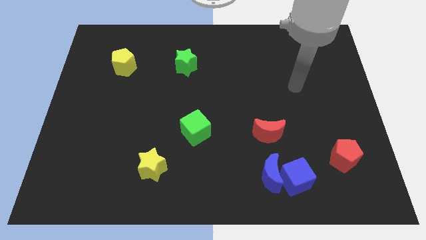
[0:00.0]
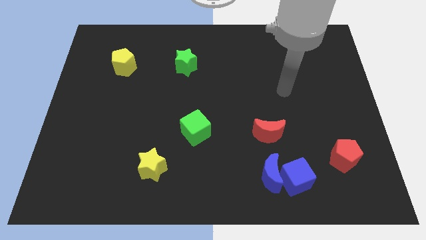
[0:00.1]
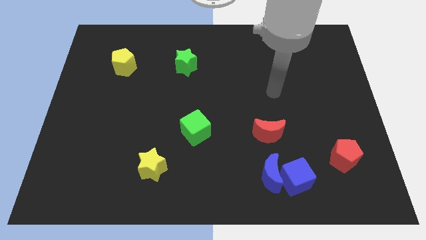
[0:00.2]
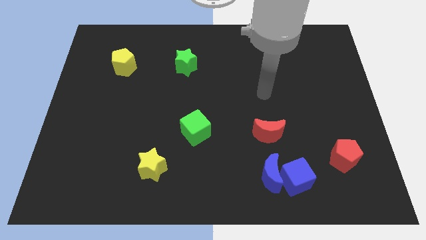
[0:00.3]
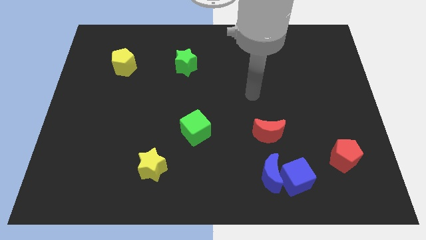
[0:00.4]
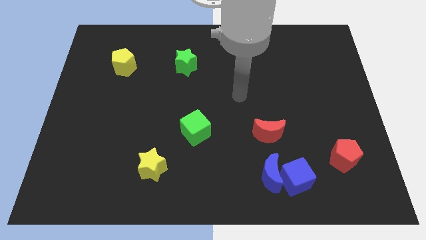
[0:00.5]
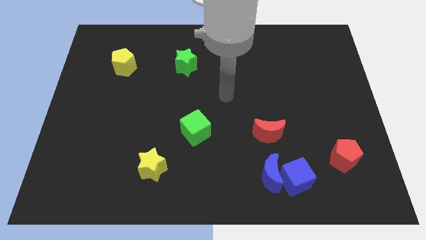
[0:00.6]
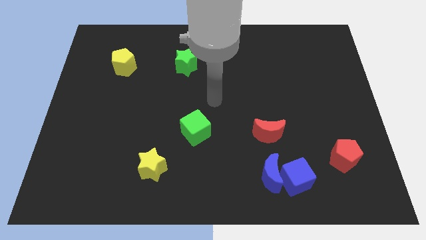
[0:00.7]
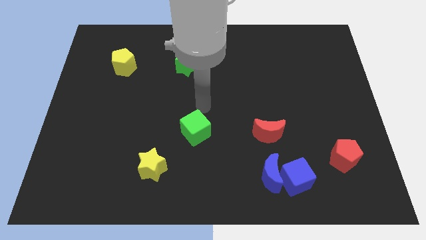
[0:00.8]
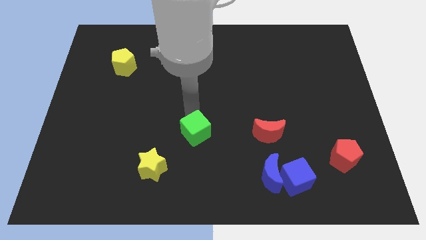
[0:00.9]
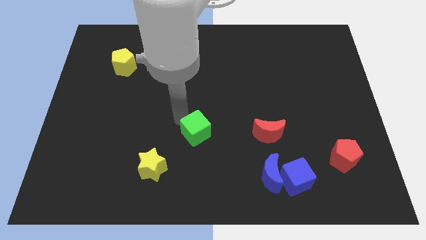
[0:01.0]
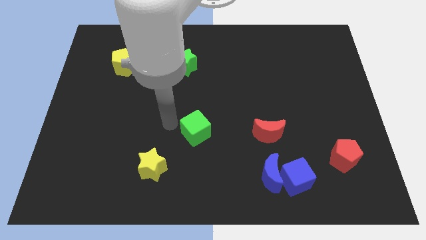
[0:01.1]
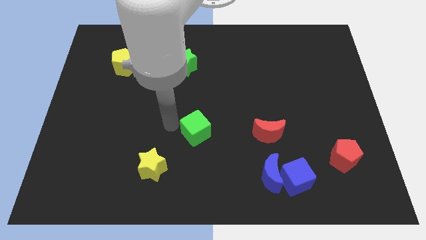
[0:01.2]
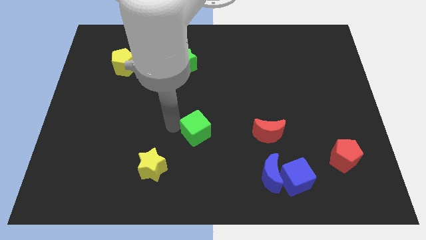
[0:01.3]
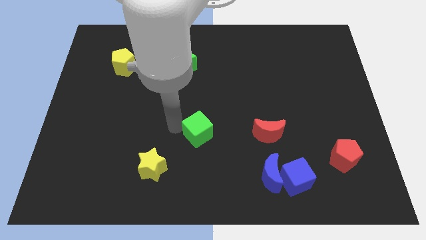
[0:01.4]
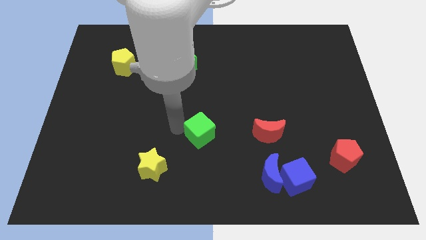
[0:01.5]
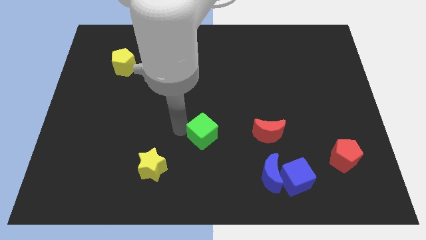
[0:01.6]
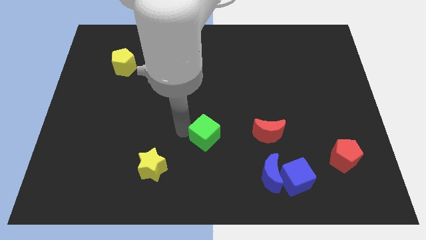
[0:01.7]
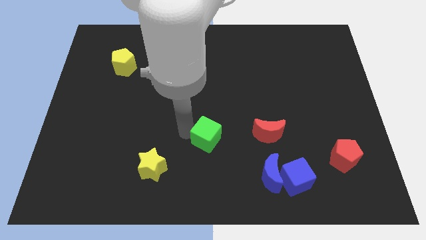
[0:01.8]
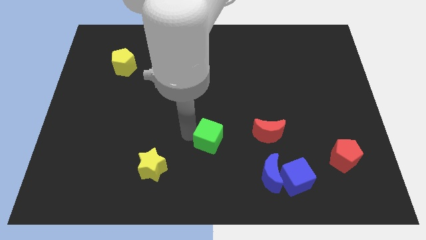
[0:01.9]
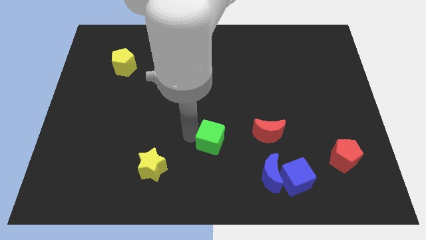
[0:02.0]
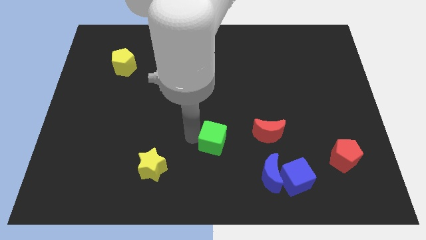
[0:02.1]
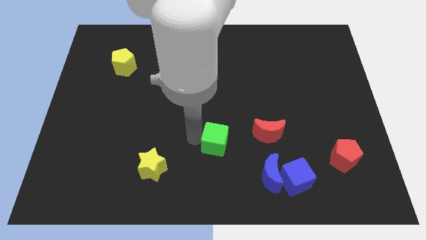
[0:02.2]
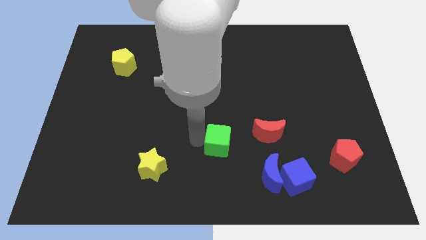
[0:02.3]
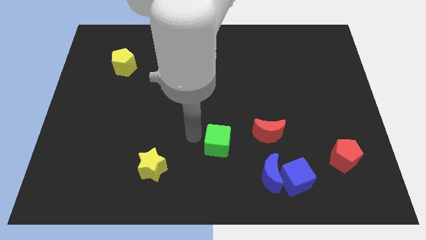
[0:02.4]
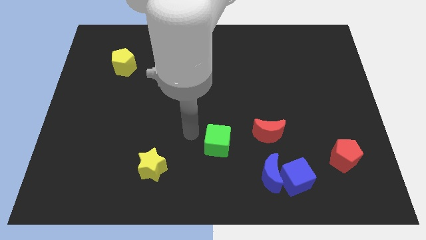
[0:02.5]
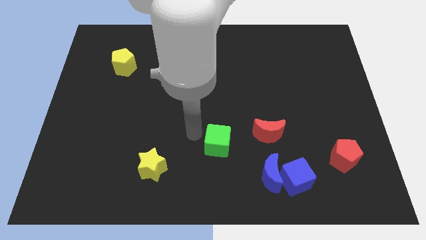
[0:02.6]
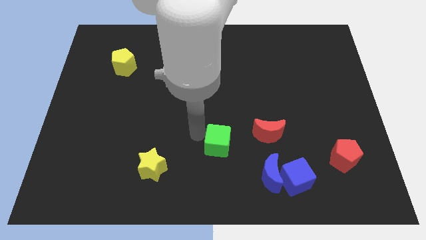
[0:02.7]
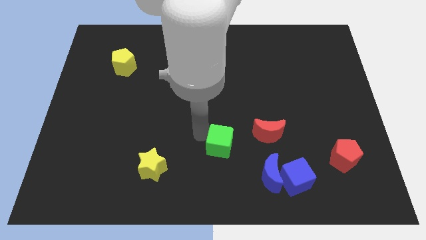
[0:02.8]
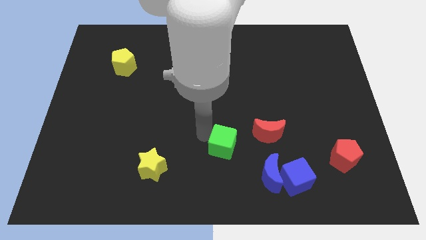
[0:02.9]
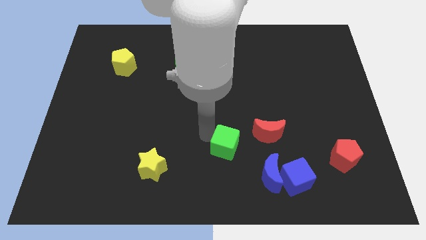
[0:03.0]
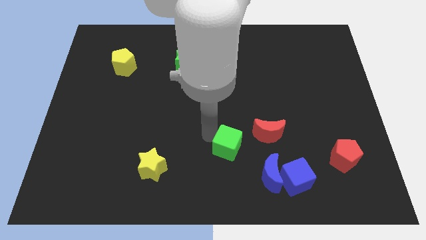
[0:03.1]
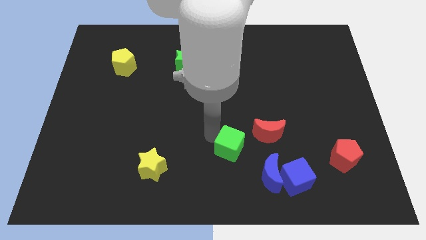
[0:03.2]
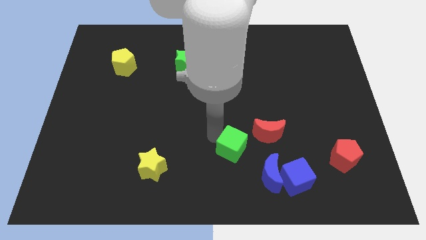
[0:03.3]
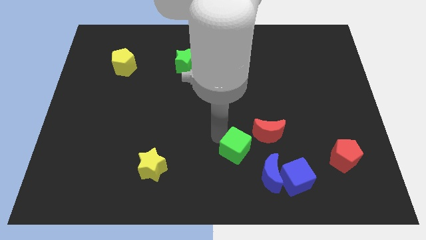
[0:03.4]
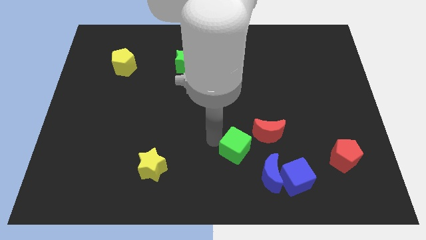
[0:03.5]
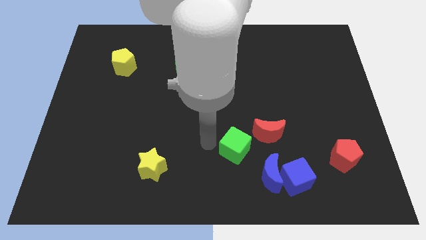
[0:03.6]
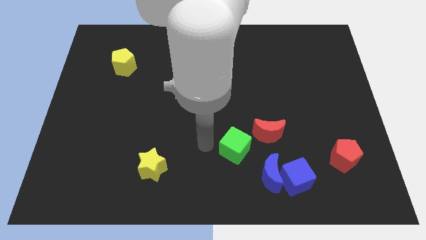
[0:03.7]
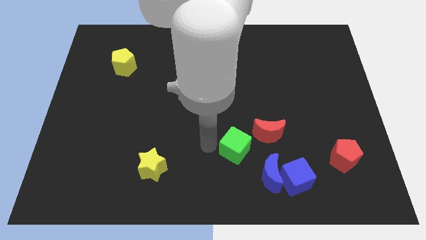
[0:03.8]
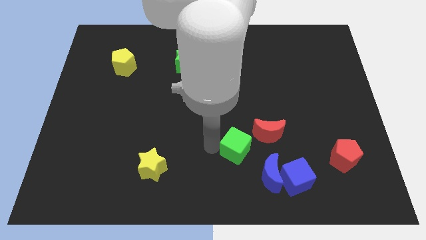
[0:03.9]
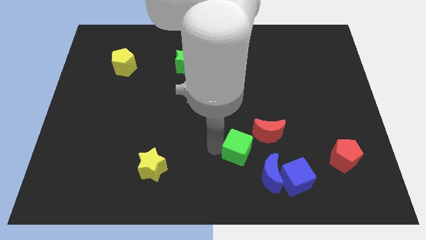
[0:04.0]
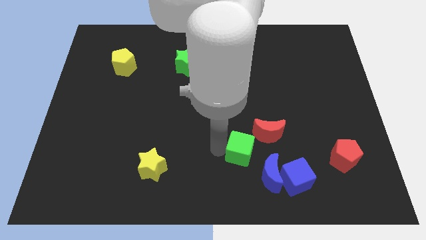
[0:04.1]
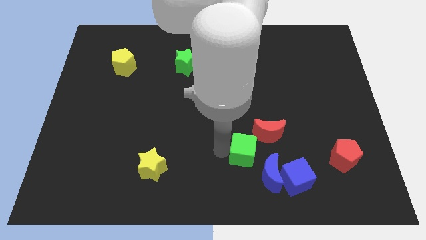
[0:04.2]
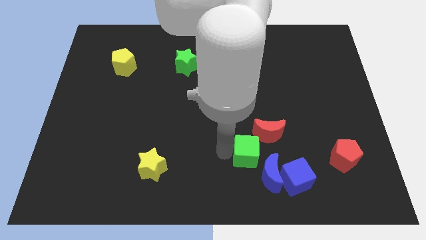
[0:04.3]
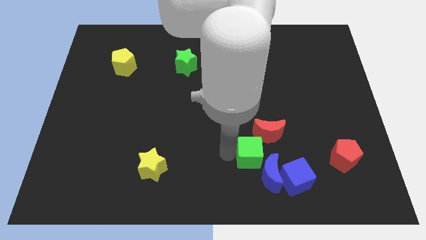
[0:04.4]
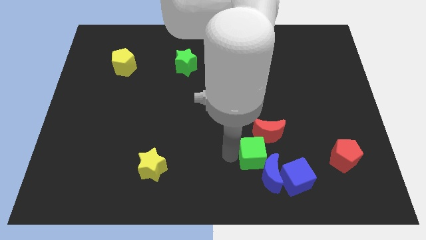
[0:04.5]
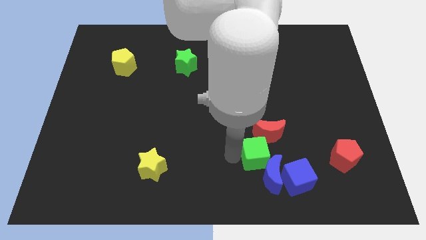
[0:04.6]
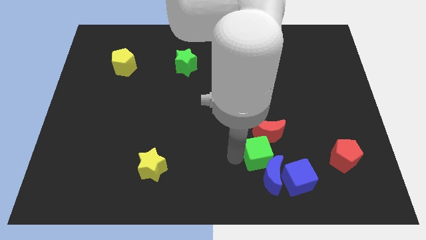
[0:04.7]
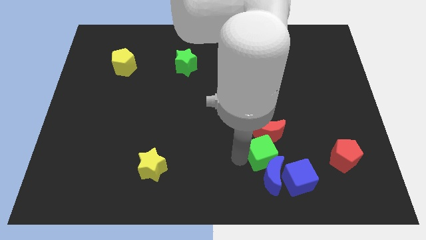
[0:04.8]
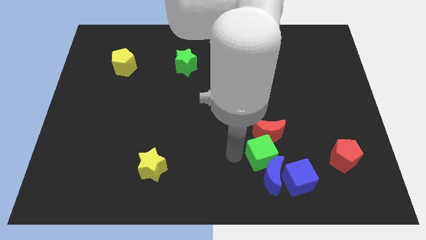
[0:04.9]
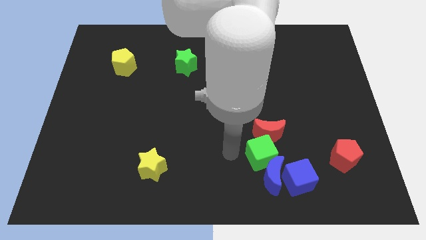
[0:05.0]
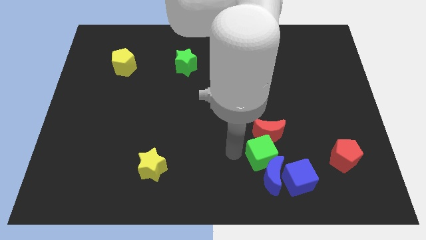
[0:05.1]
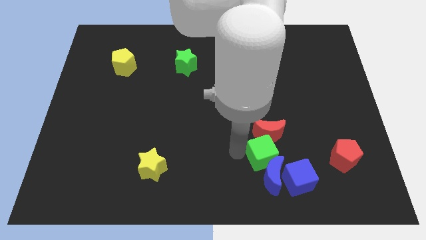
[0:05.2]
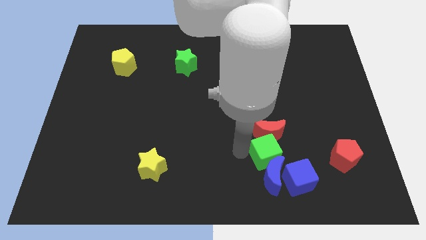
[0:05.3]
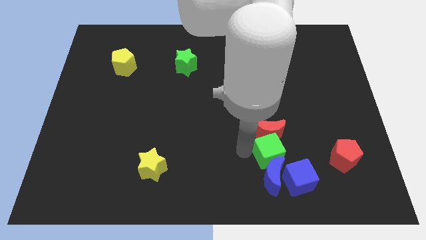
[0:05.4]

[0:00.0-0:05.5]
push the green cube to the left of the red pentagon

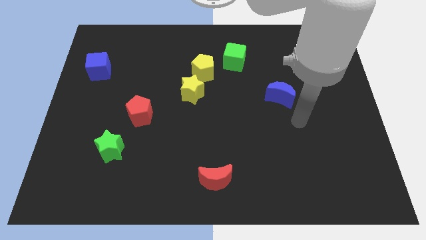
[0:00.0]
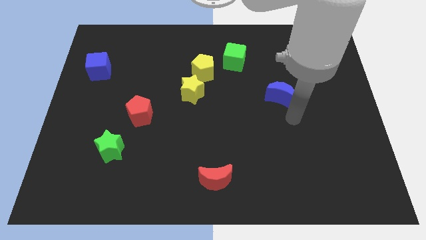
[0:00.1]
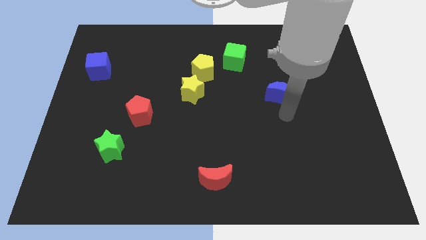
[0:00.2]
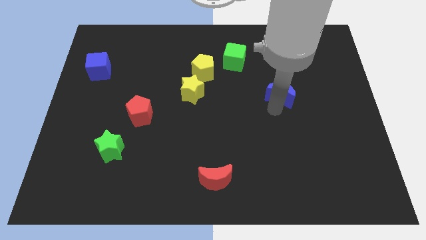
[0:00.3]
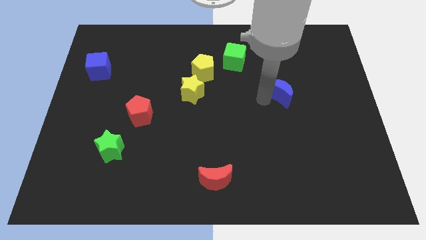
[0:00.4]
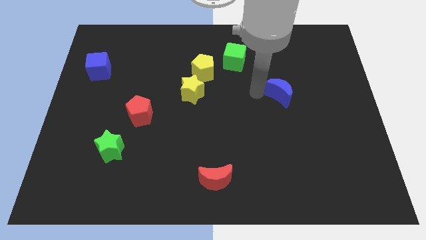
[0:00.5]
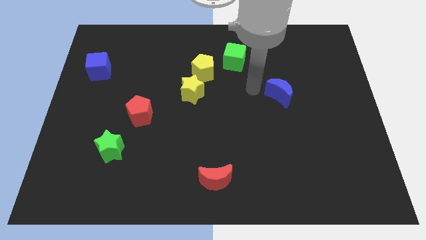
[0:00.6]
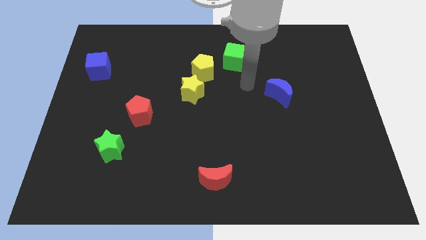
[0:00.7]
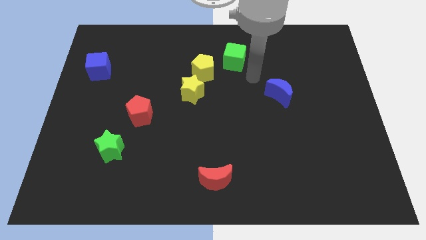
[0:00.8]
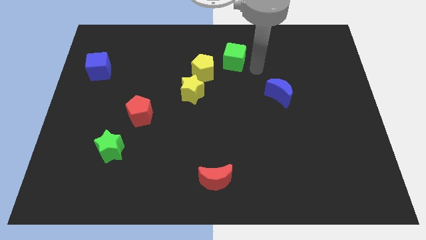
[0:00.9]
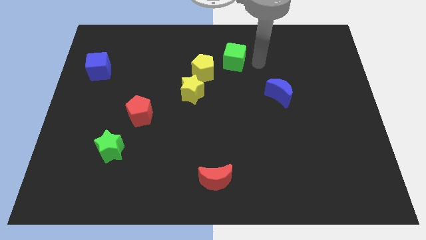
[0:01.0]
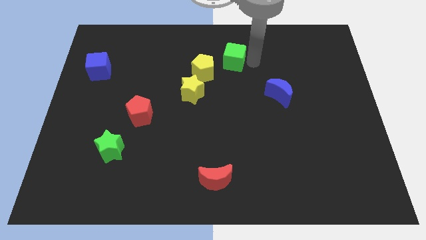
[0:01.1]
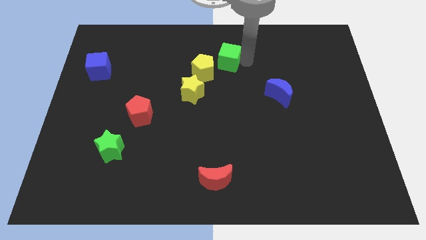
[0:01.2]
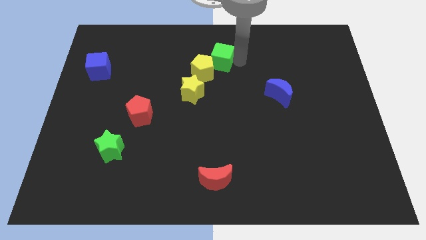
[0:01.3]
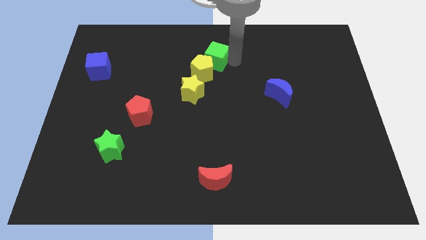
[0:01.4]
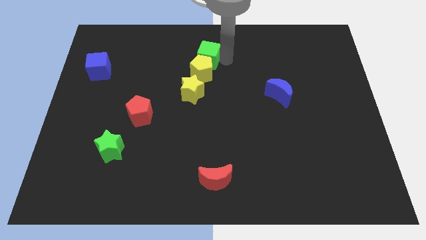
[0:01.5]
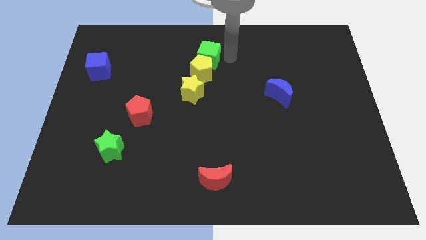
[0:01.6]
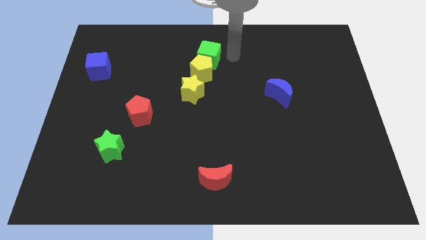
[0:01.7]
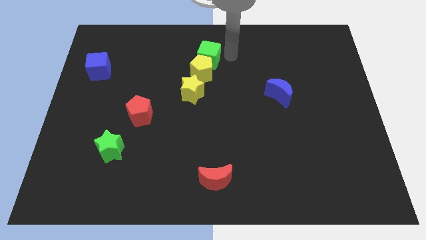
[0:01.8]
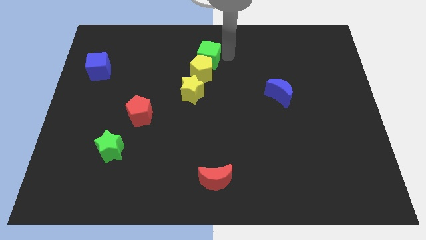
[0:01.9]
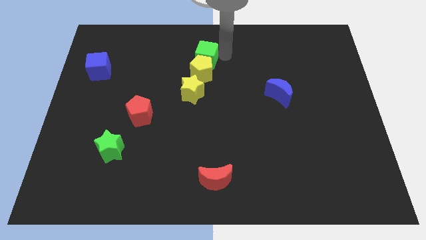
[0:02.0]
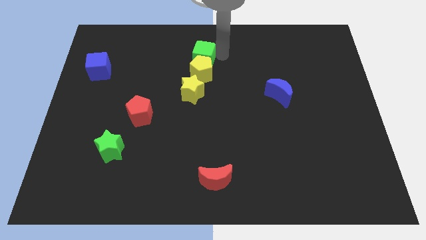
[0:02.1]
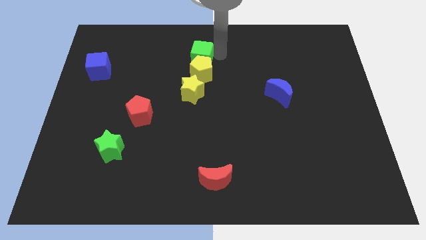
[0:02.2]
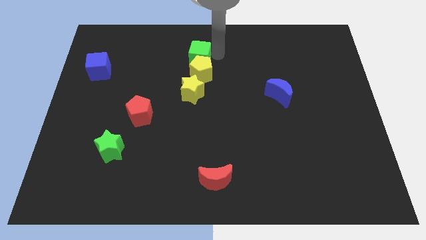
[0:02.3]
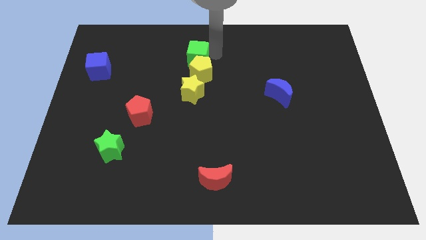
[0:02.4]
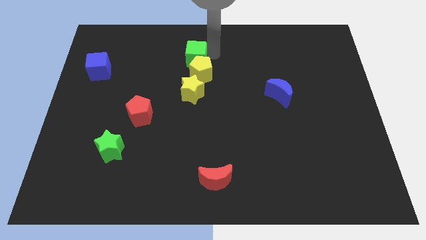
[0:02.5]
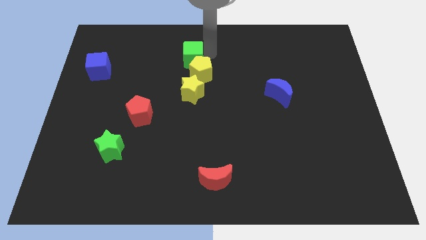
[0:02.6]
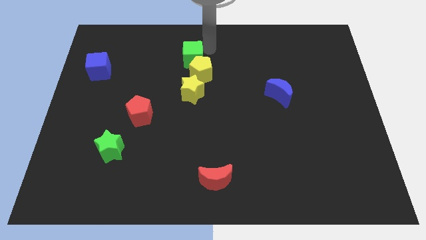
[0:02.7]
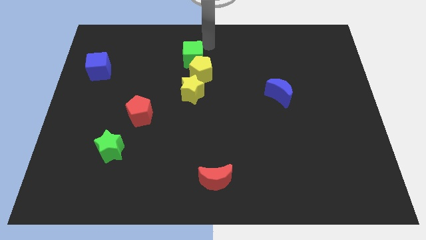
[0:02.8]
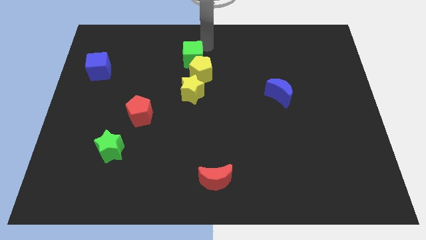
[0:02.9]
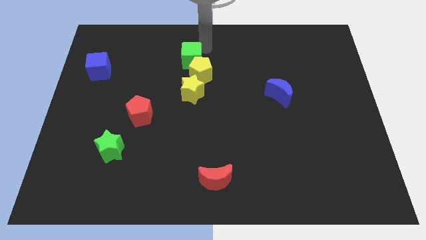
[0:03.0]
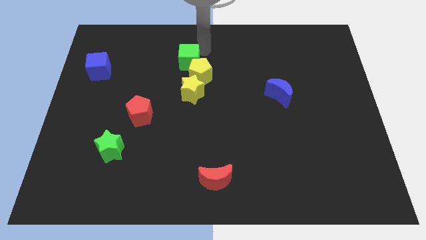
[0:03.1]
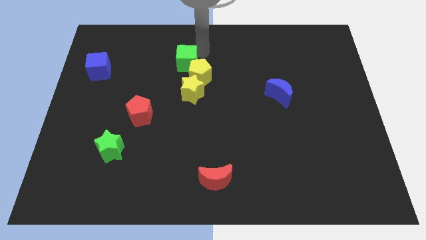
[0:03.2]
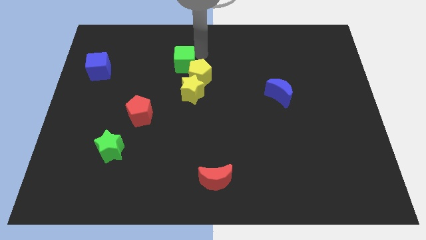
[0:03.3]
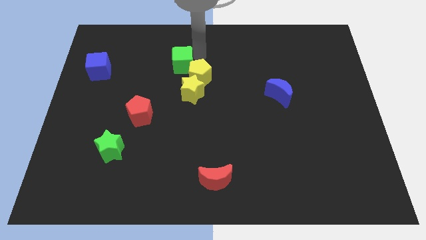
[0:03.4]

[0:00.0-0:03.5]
push the green cube to the top left side of the yellow star
